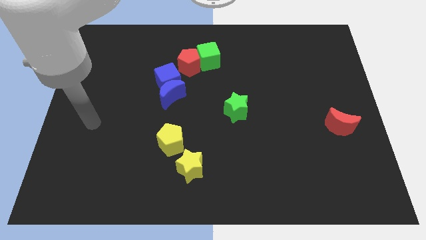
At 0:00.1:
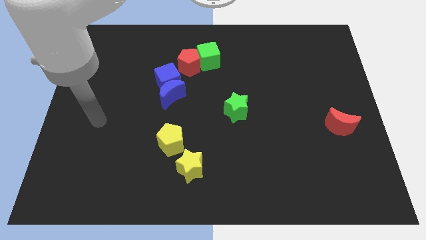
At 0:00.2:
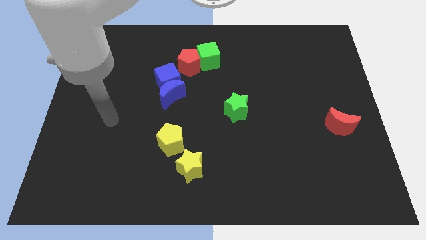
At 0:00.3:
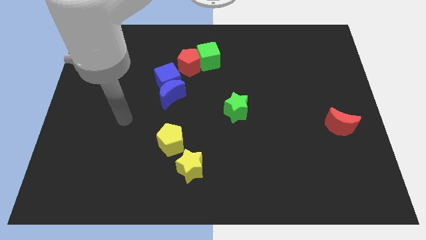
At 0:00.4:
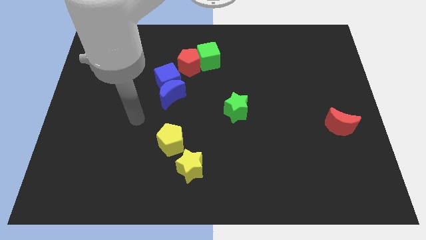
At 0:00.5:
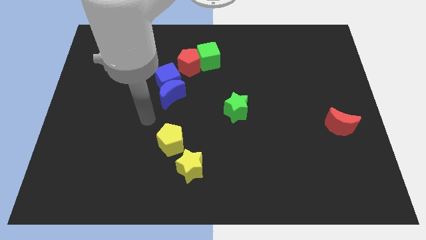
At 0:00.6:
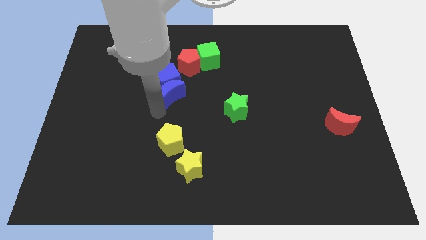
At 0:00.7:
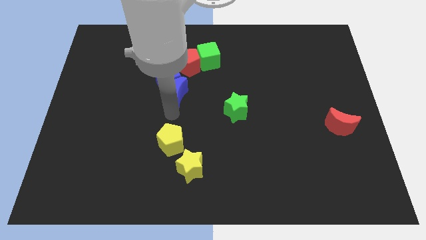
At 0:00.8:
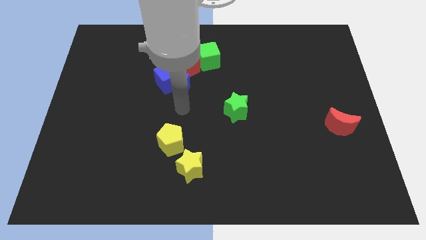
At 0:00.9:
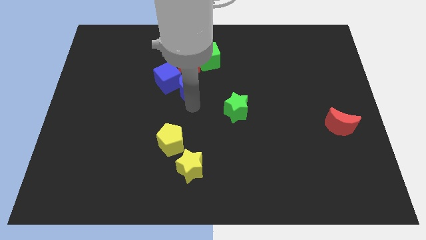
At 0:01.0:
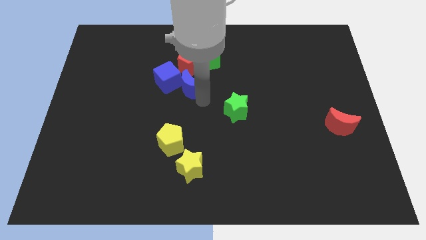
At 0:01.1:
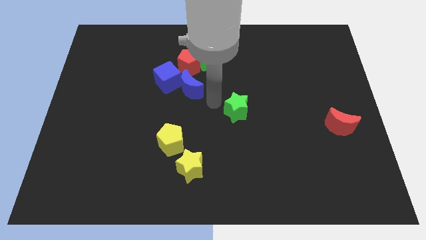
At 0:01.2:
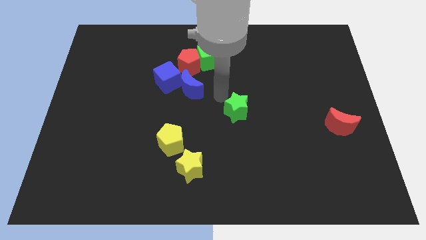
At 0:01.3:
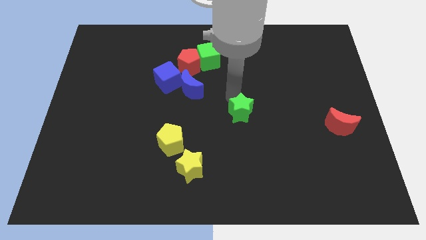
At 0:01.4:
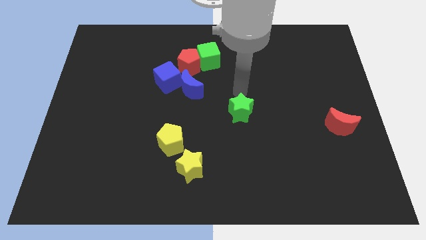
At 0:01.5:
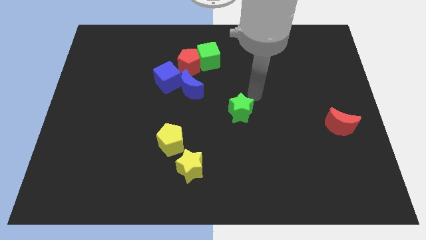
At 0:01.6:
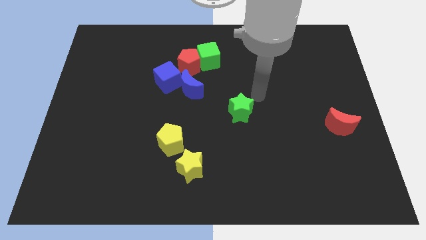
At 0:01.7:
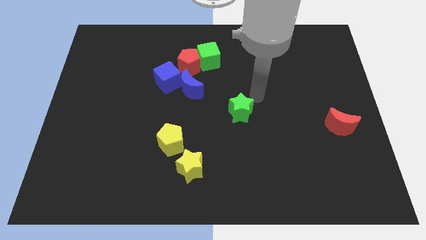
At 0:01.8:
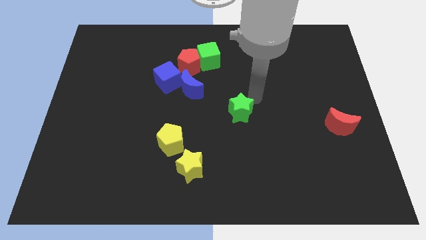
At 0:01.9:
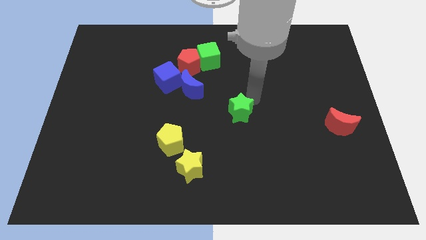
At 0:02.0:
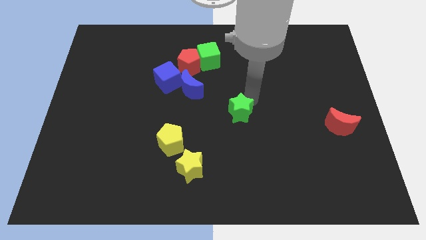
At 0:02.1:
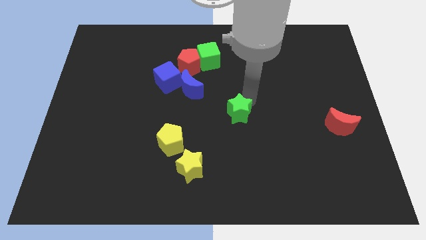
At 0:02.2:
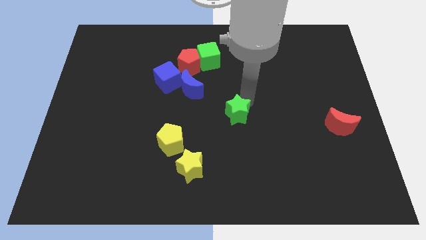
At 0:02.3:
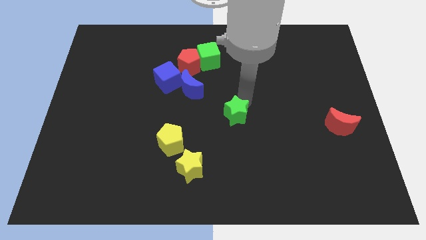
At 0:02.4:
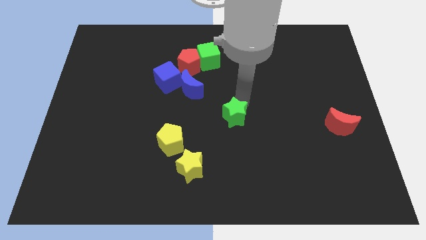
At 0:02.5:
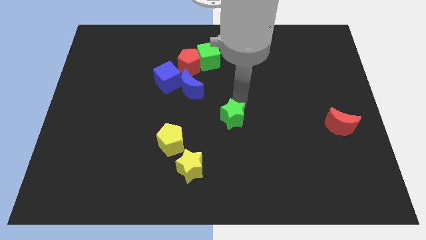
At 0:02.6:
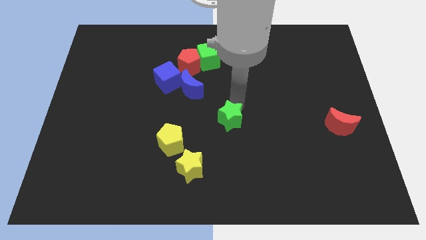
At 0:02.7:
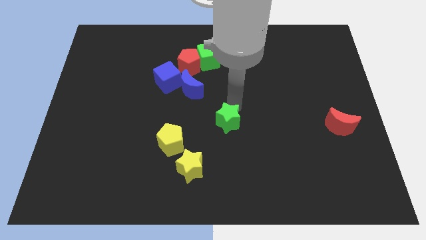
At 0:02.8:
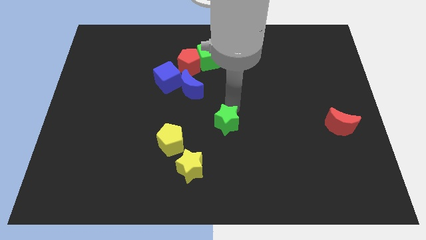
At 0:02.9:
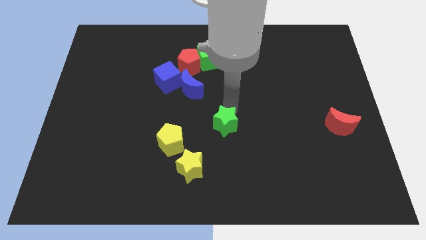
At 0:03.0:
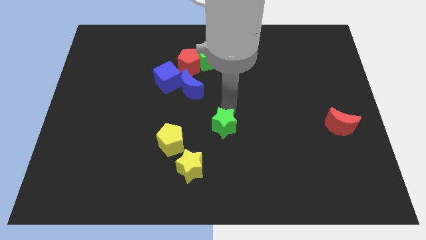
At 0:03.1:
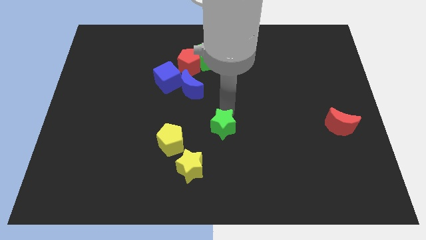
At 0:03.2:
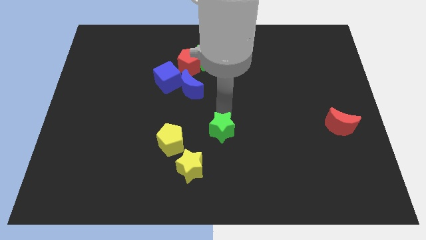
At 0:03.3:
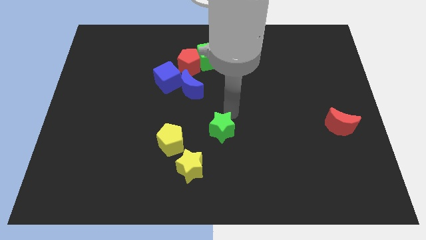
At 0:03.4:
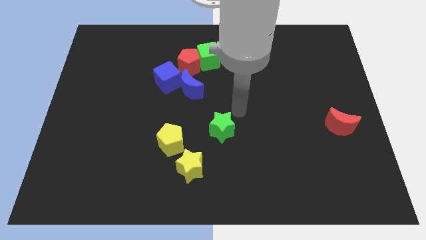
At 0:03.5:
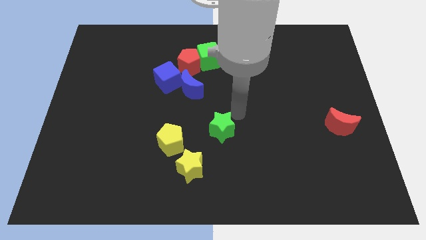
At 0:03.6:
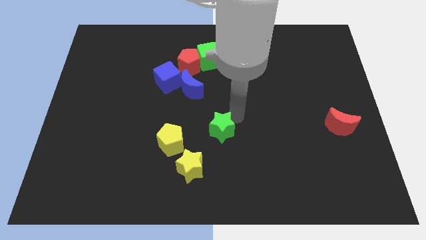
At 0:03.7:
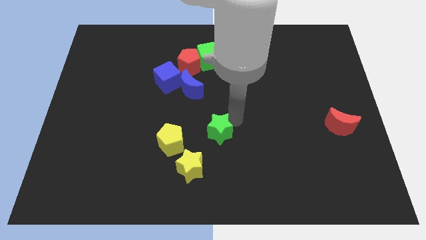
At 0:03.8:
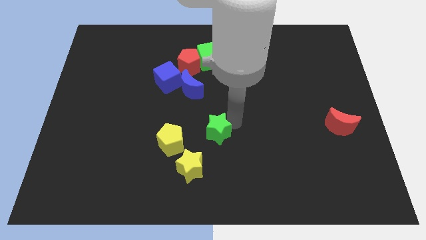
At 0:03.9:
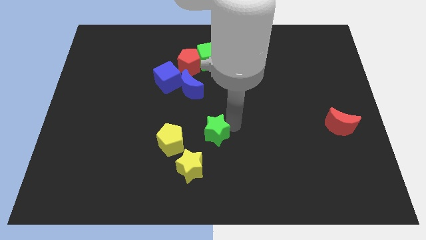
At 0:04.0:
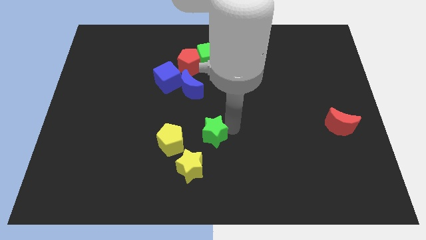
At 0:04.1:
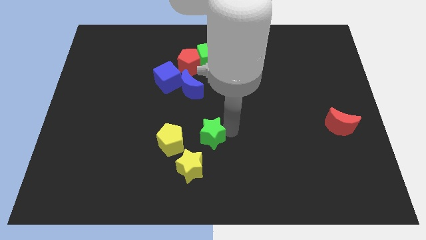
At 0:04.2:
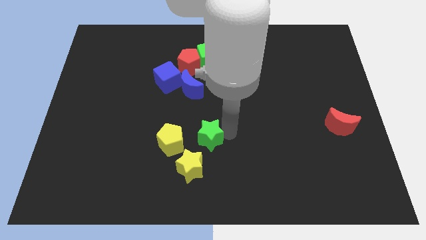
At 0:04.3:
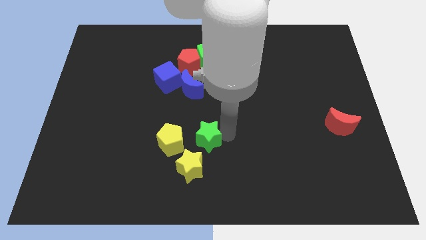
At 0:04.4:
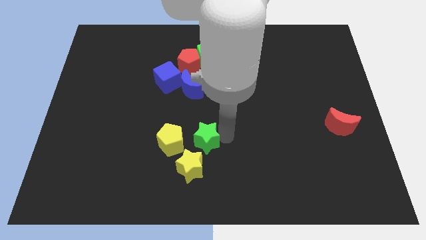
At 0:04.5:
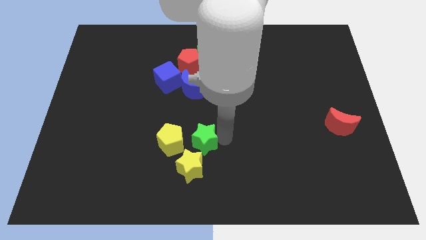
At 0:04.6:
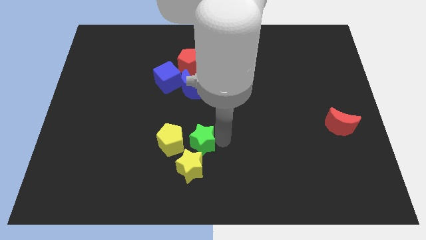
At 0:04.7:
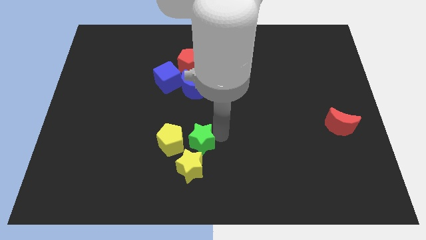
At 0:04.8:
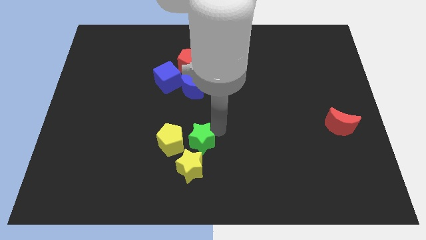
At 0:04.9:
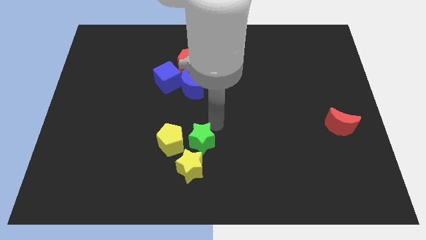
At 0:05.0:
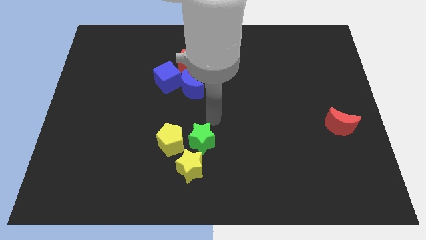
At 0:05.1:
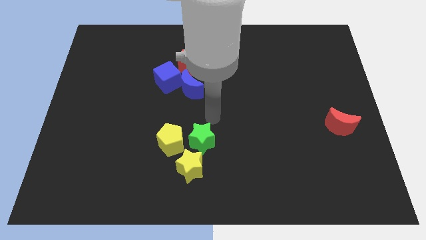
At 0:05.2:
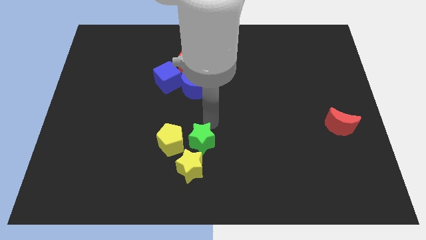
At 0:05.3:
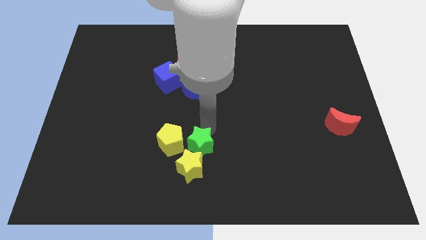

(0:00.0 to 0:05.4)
move the green star to the yellow star

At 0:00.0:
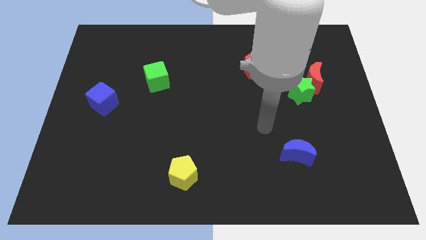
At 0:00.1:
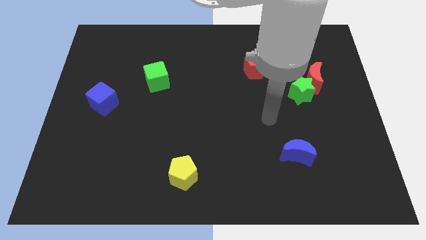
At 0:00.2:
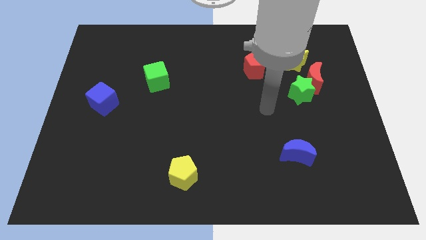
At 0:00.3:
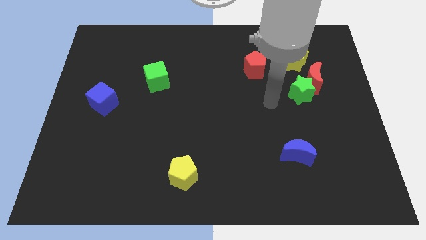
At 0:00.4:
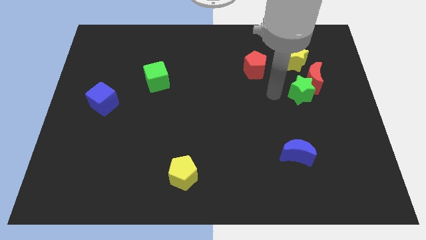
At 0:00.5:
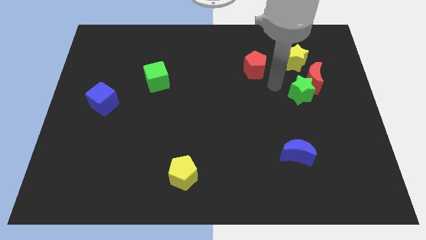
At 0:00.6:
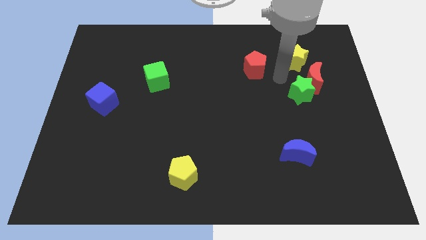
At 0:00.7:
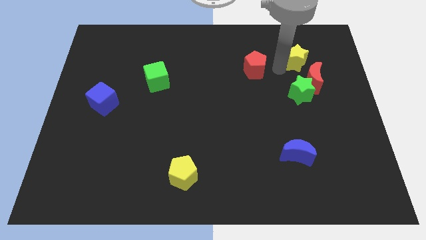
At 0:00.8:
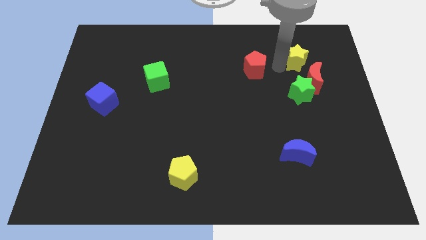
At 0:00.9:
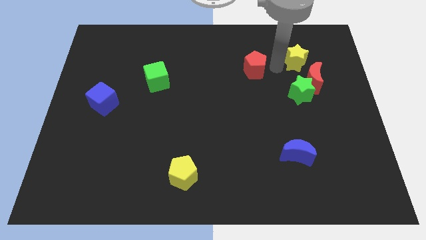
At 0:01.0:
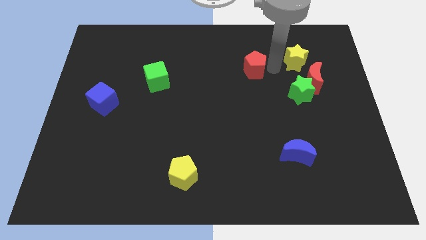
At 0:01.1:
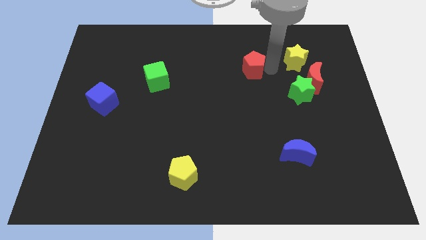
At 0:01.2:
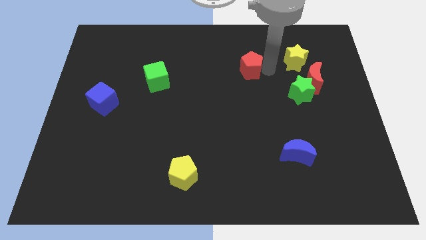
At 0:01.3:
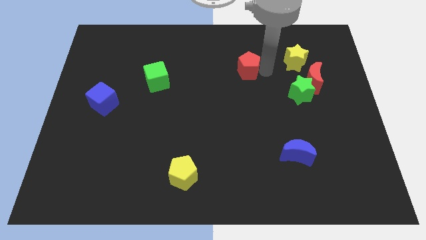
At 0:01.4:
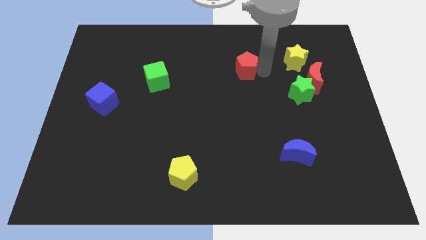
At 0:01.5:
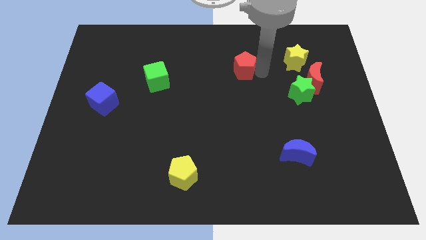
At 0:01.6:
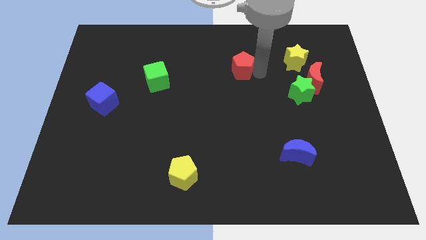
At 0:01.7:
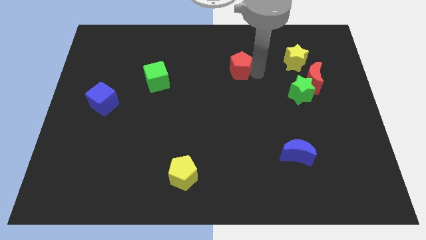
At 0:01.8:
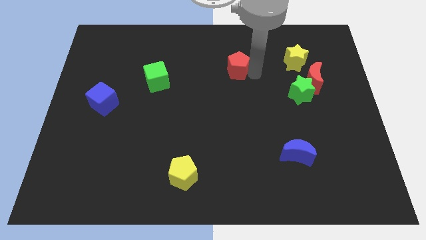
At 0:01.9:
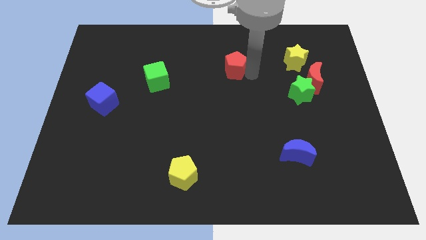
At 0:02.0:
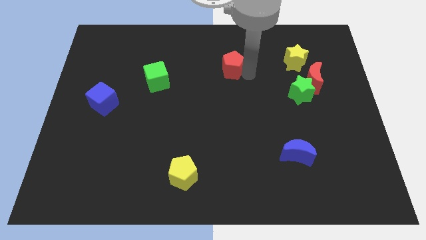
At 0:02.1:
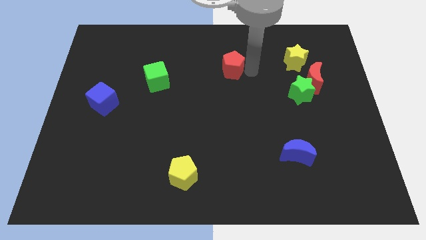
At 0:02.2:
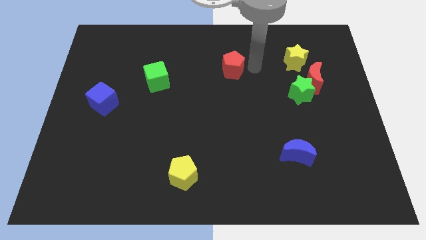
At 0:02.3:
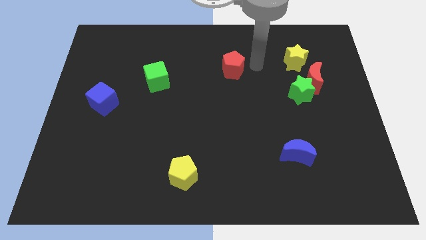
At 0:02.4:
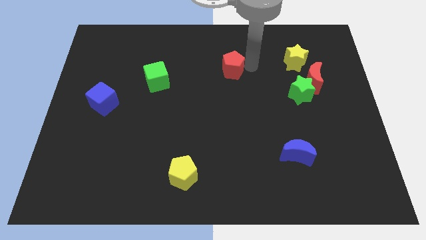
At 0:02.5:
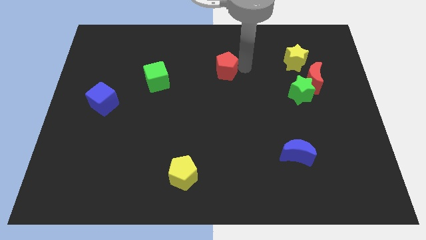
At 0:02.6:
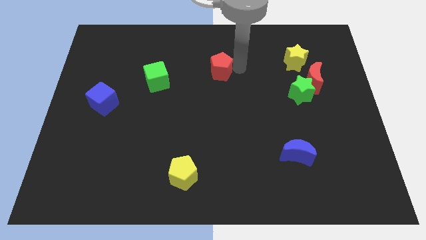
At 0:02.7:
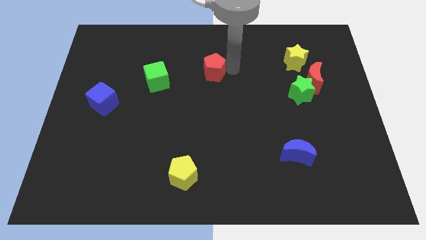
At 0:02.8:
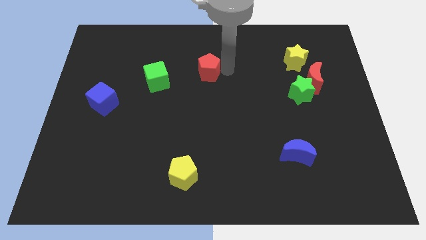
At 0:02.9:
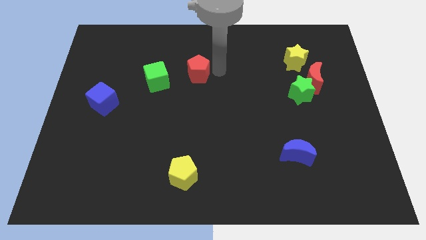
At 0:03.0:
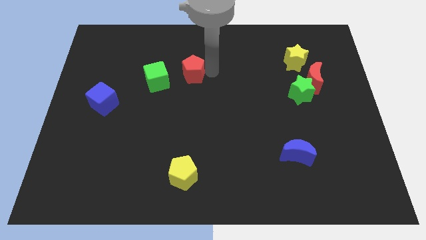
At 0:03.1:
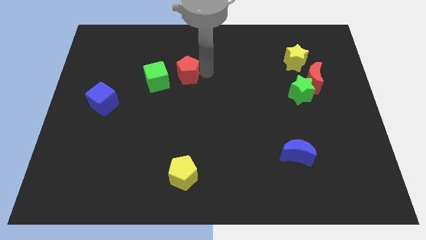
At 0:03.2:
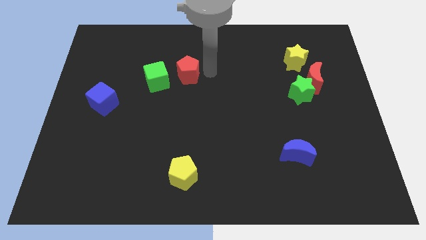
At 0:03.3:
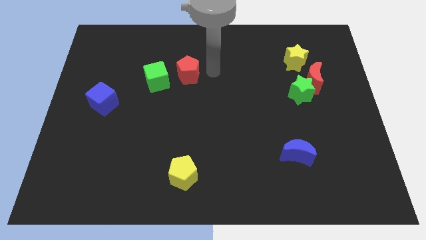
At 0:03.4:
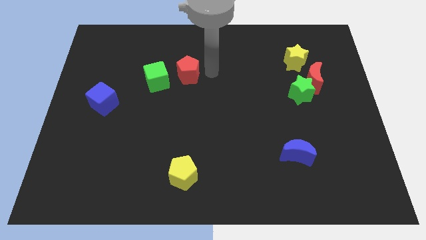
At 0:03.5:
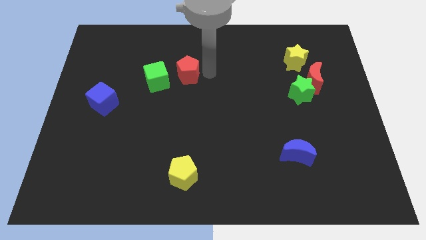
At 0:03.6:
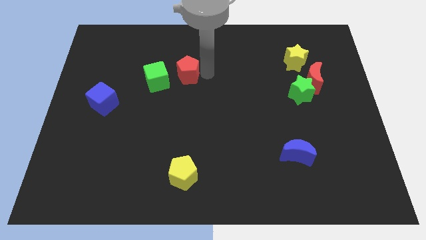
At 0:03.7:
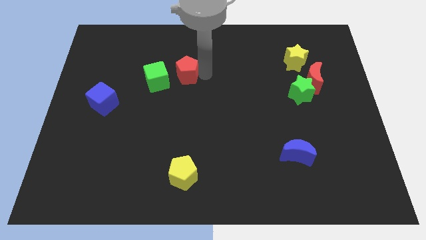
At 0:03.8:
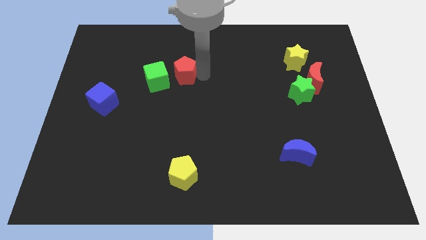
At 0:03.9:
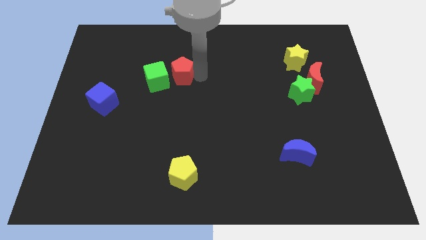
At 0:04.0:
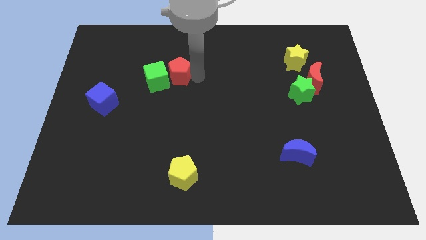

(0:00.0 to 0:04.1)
put the red pentagon to the green cube
